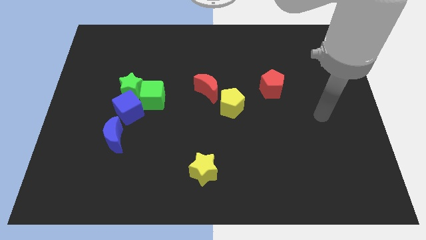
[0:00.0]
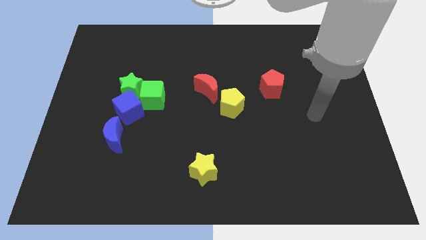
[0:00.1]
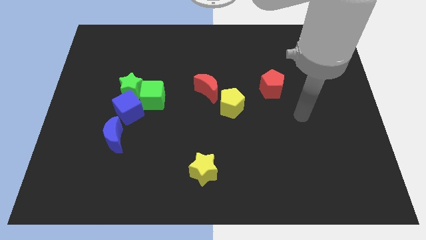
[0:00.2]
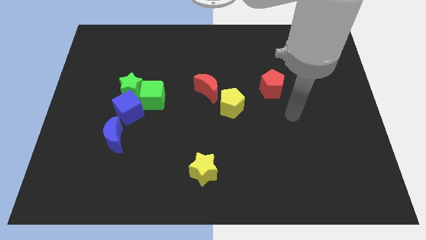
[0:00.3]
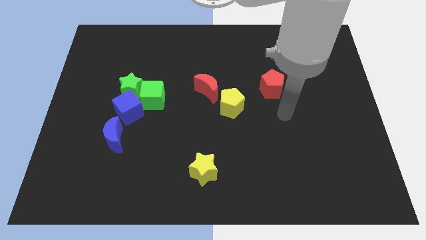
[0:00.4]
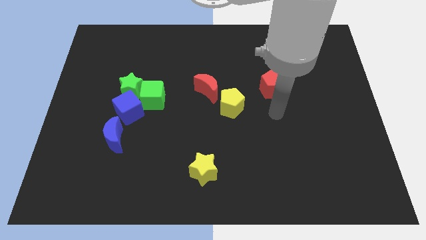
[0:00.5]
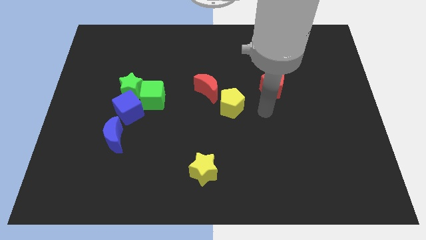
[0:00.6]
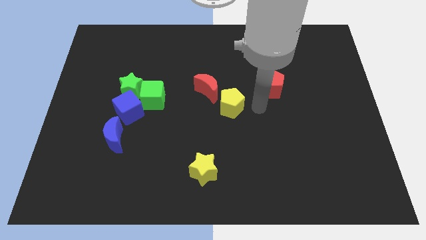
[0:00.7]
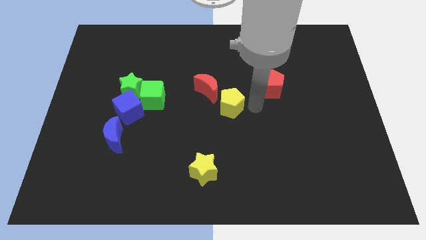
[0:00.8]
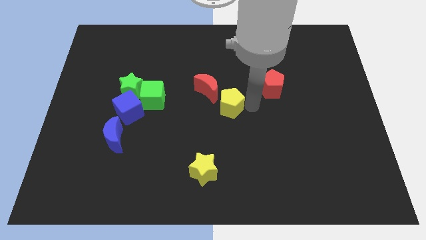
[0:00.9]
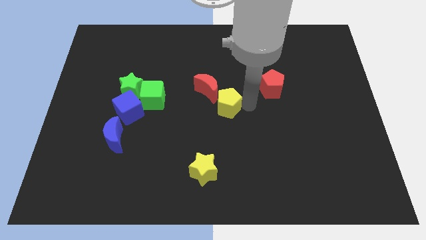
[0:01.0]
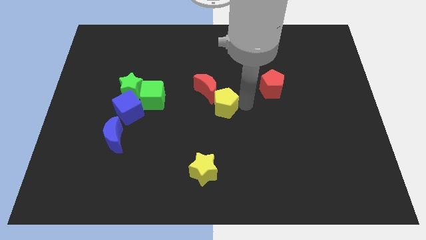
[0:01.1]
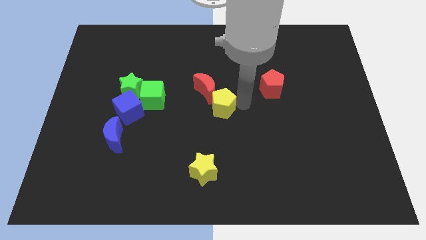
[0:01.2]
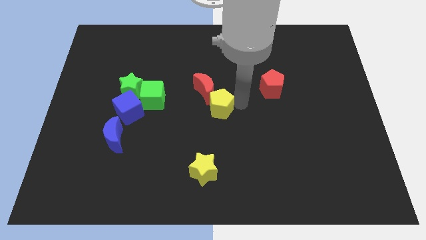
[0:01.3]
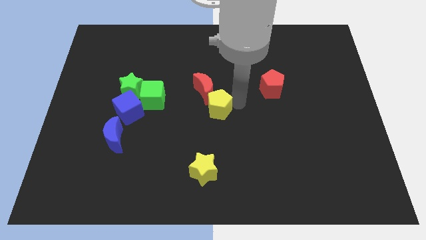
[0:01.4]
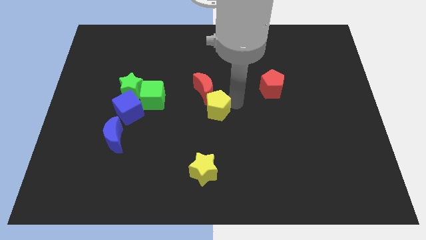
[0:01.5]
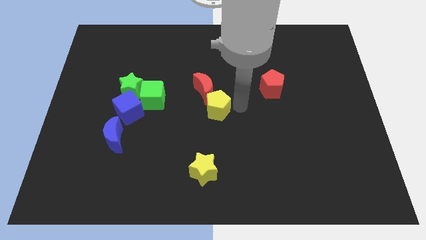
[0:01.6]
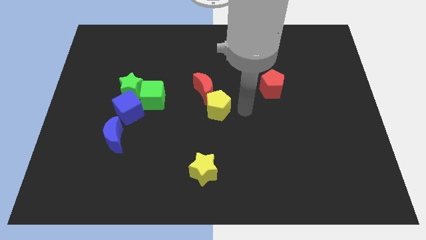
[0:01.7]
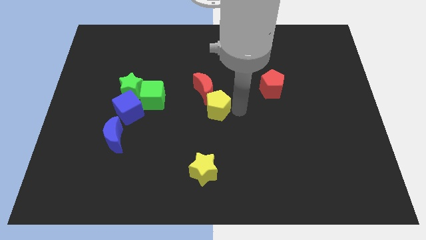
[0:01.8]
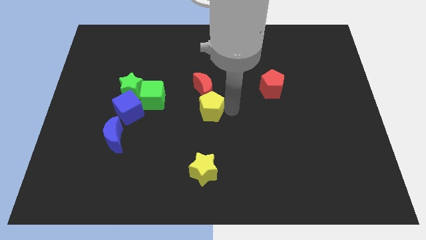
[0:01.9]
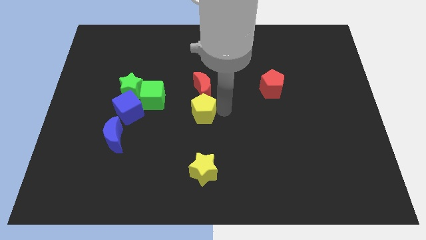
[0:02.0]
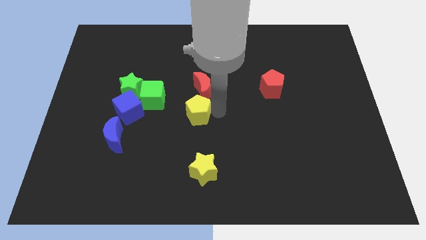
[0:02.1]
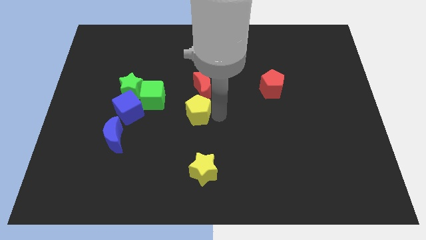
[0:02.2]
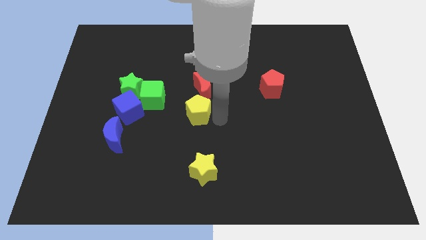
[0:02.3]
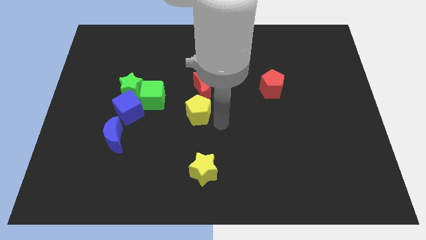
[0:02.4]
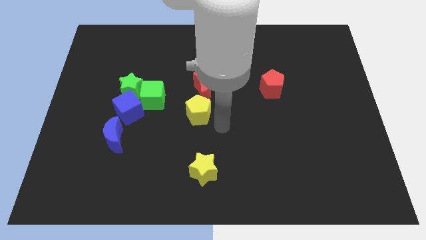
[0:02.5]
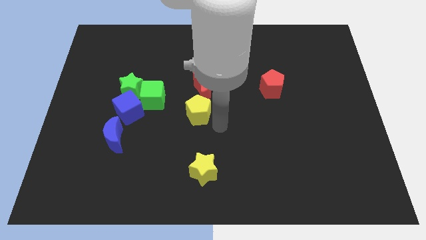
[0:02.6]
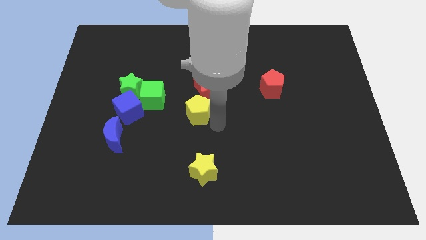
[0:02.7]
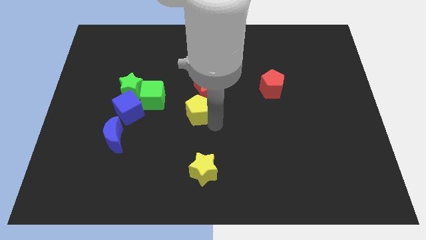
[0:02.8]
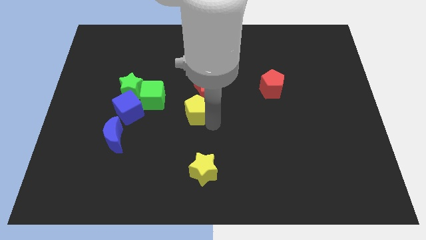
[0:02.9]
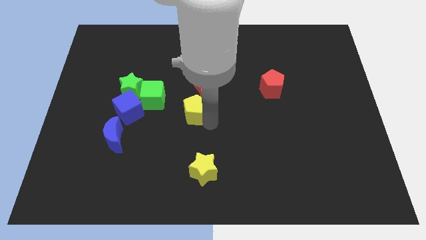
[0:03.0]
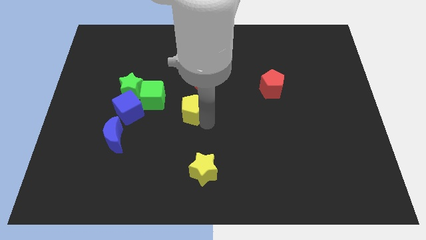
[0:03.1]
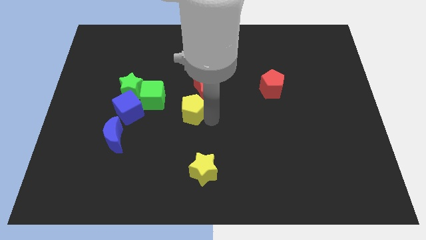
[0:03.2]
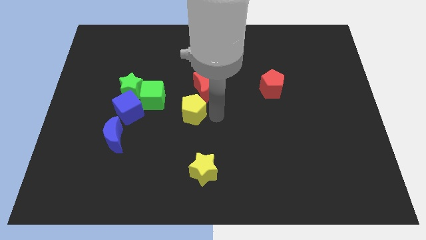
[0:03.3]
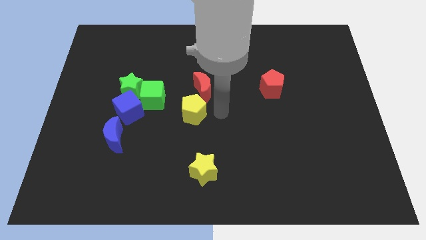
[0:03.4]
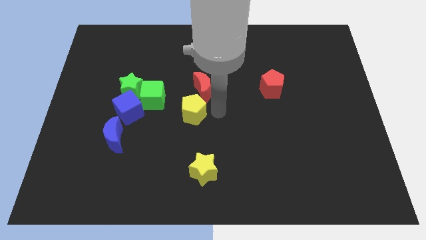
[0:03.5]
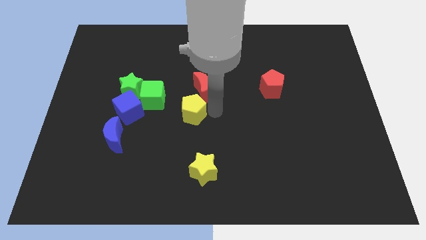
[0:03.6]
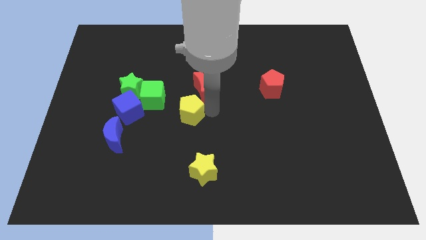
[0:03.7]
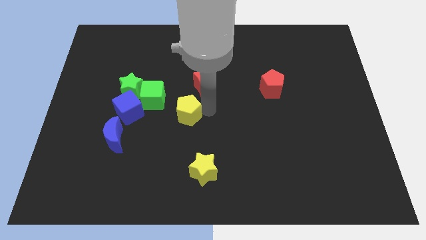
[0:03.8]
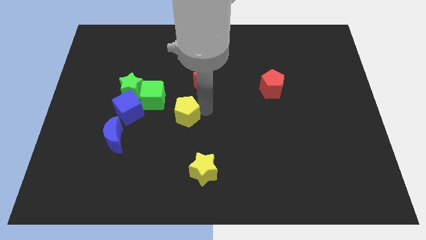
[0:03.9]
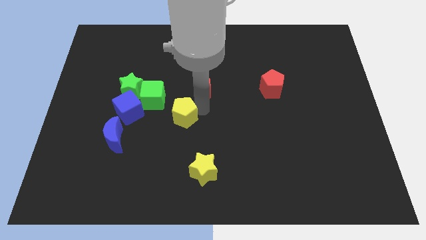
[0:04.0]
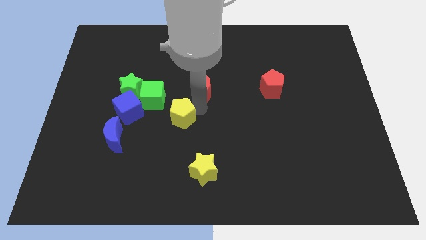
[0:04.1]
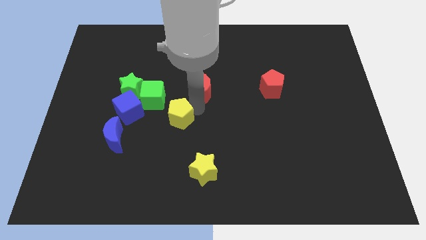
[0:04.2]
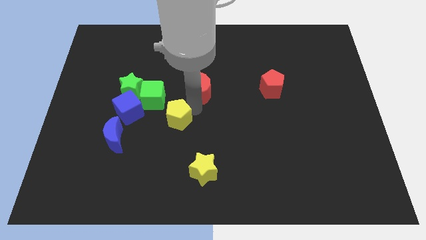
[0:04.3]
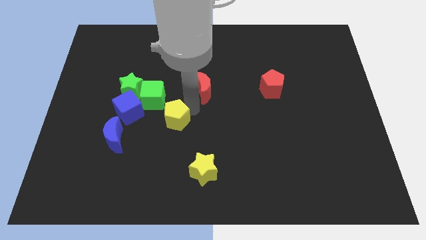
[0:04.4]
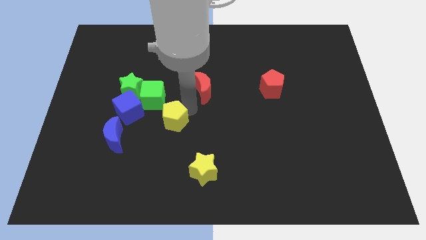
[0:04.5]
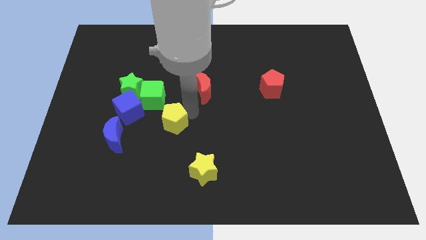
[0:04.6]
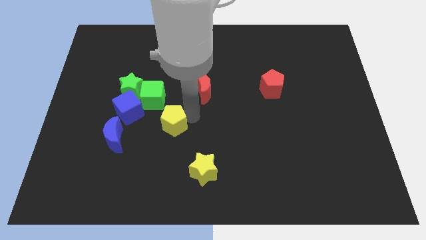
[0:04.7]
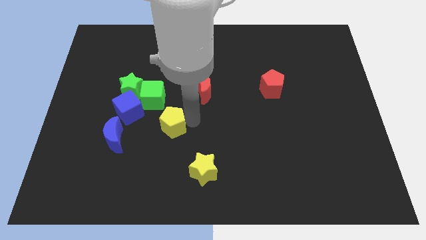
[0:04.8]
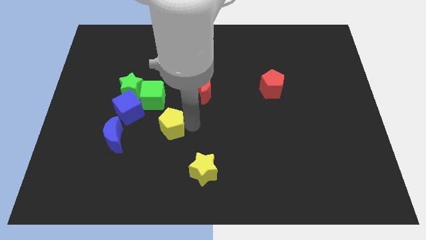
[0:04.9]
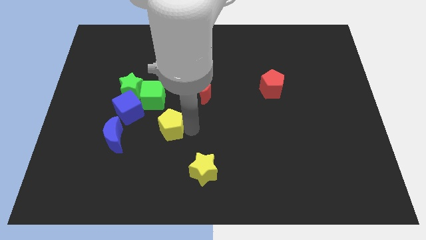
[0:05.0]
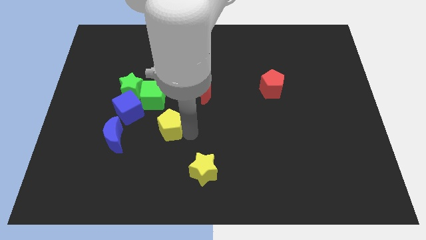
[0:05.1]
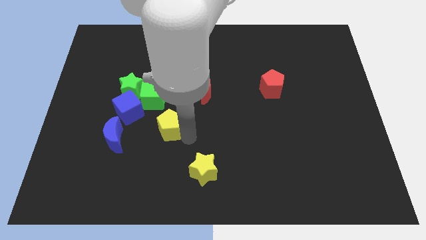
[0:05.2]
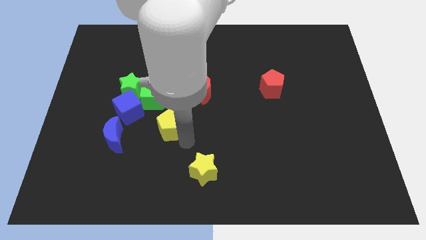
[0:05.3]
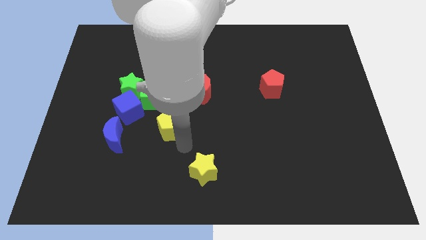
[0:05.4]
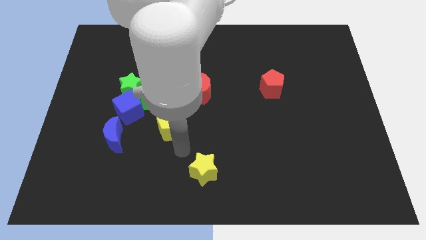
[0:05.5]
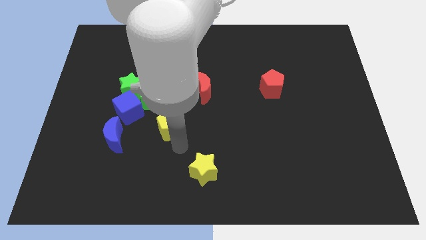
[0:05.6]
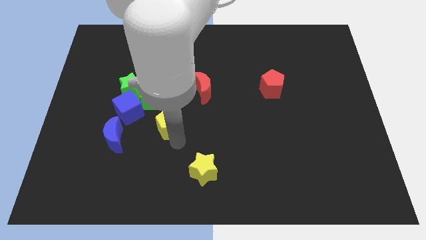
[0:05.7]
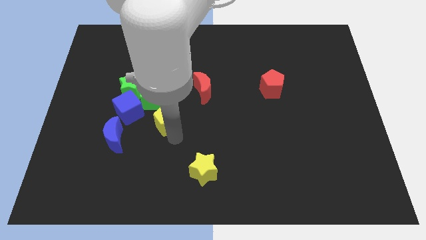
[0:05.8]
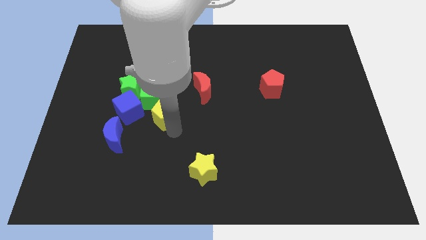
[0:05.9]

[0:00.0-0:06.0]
move the yellow pentagon to the top right of the blue moon

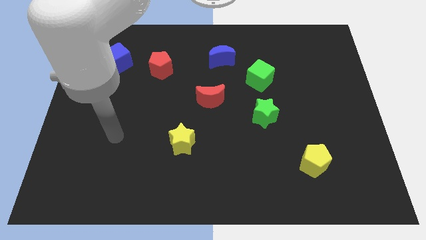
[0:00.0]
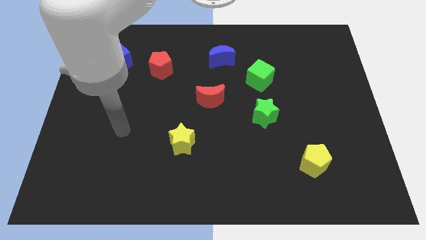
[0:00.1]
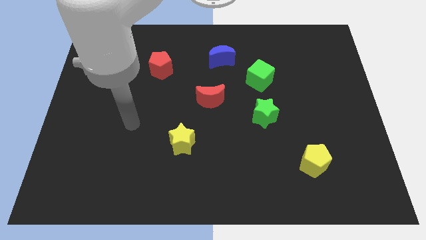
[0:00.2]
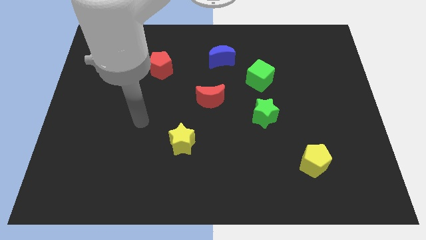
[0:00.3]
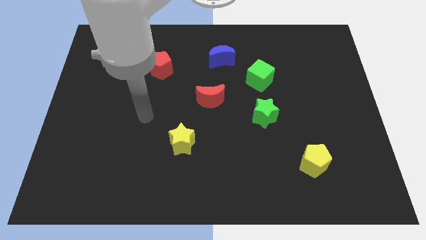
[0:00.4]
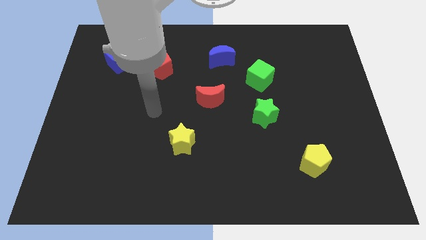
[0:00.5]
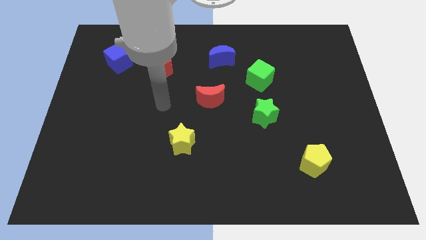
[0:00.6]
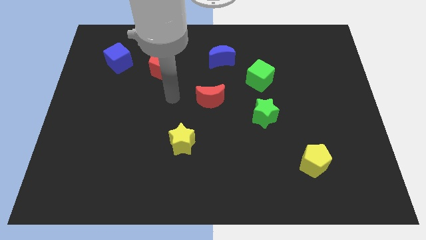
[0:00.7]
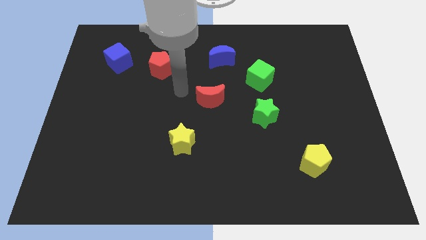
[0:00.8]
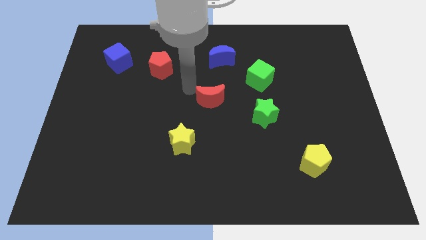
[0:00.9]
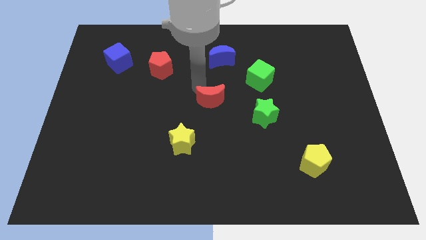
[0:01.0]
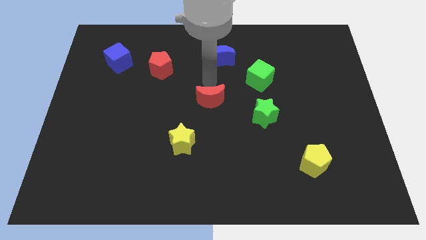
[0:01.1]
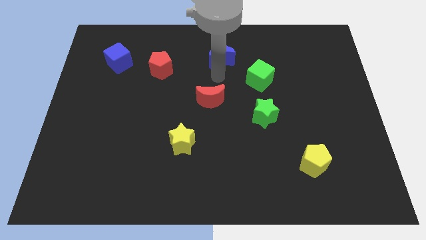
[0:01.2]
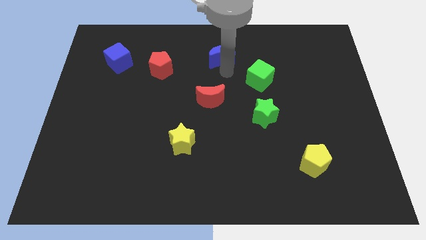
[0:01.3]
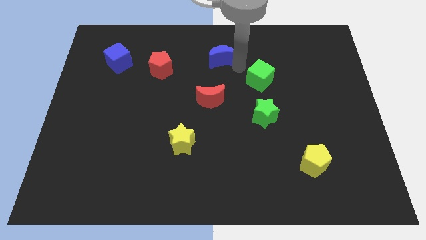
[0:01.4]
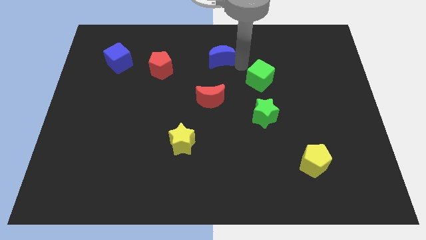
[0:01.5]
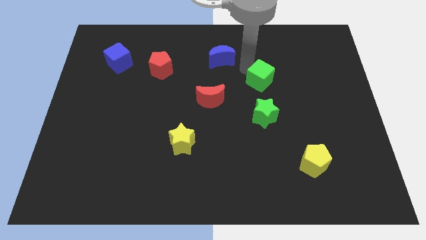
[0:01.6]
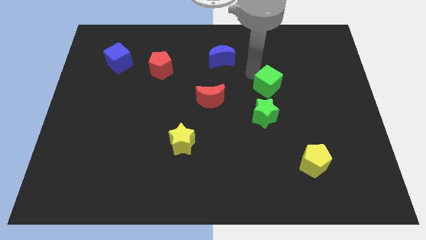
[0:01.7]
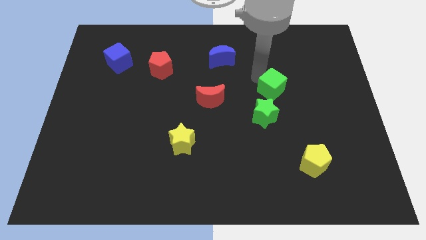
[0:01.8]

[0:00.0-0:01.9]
push the green cube to the top right side of the green star
